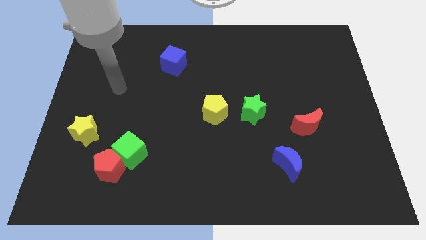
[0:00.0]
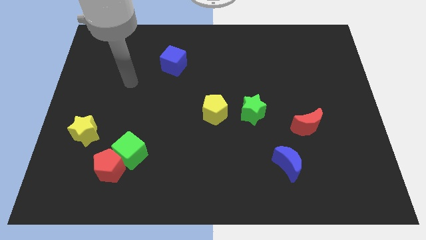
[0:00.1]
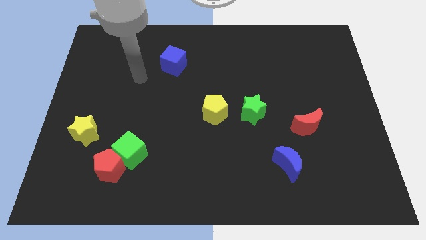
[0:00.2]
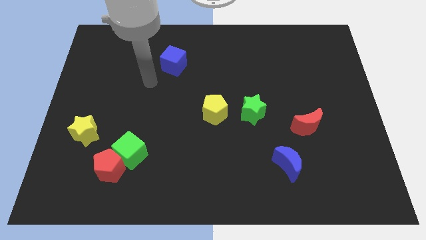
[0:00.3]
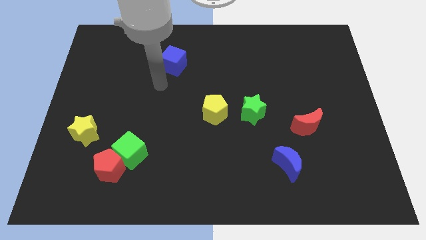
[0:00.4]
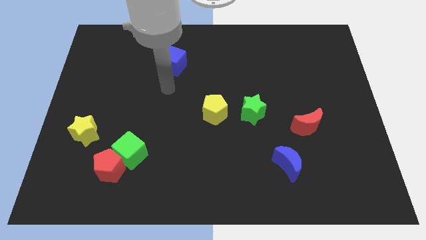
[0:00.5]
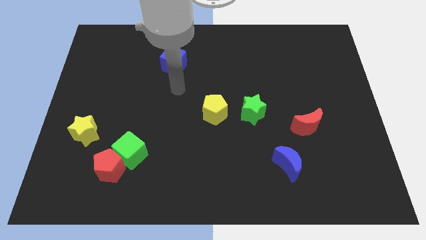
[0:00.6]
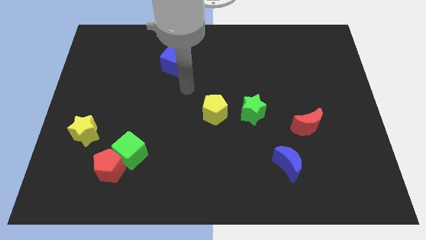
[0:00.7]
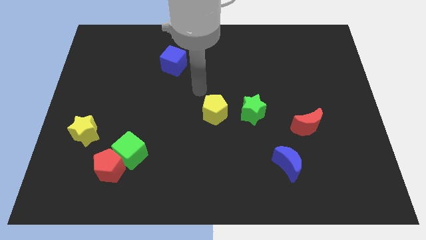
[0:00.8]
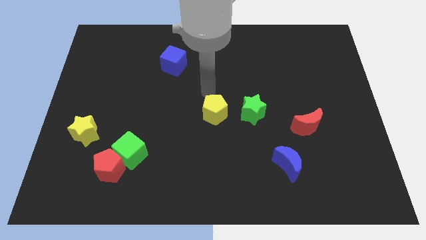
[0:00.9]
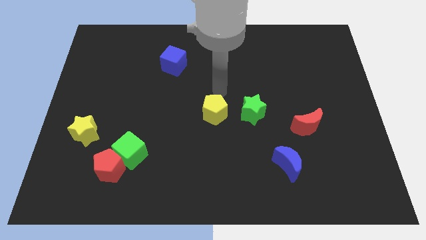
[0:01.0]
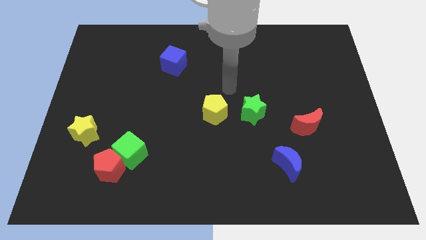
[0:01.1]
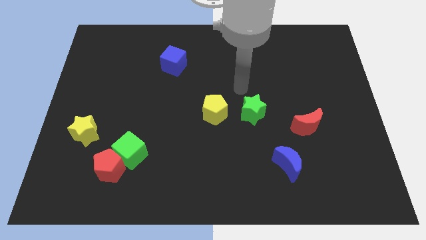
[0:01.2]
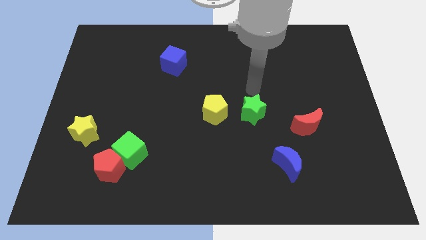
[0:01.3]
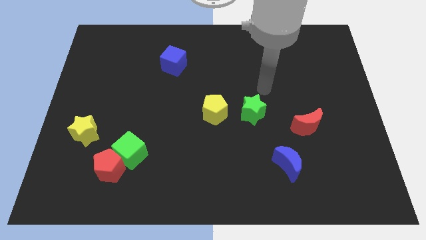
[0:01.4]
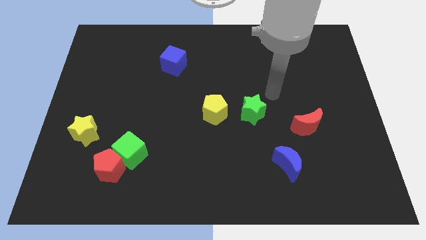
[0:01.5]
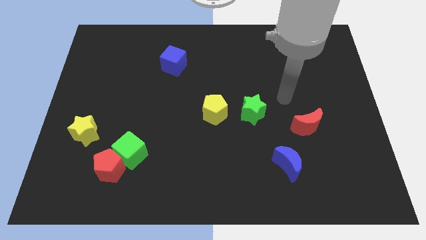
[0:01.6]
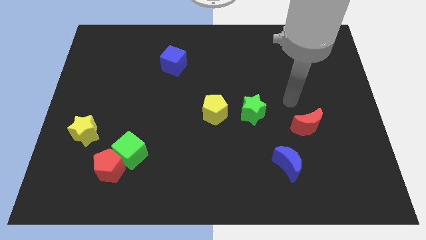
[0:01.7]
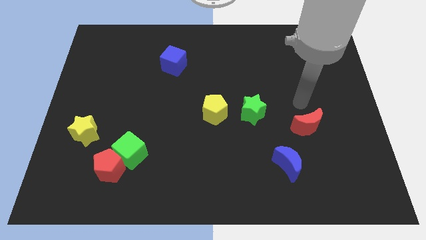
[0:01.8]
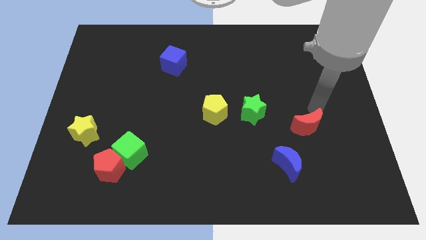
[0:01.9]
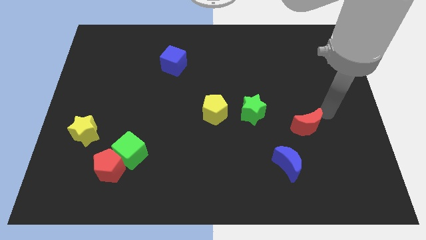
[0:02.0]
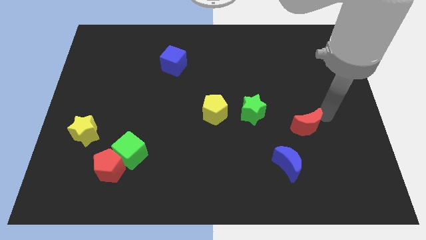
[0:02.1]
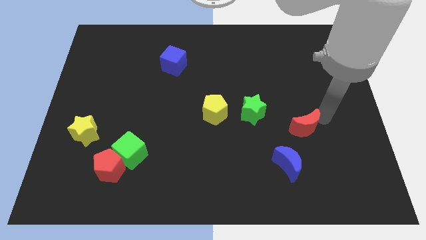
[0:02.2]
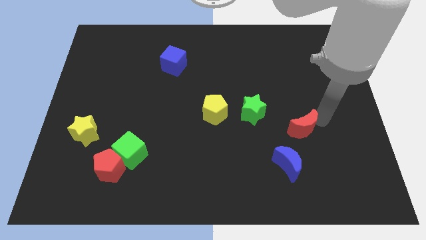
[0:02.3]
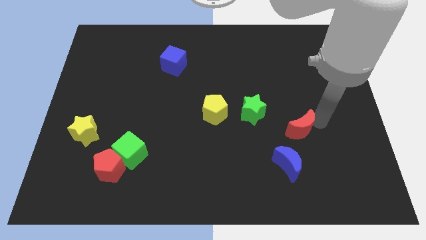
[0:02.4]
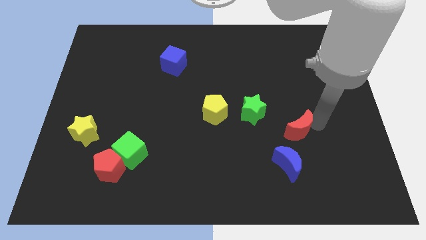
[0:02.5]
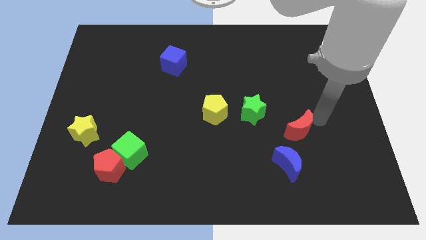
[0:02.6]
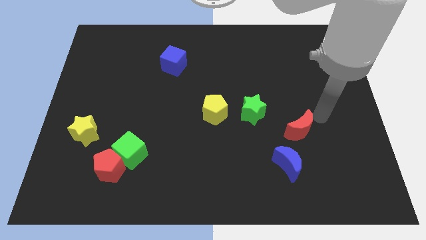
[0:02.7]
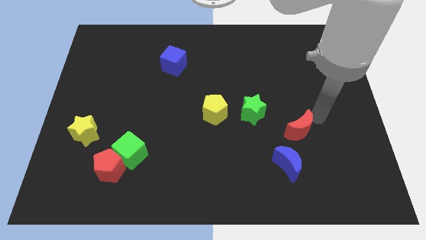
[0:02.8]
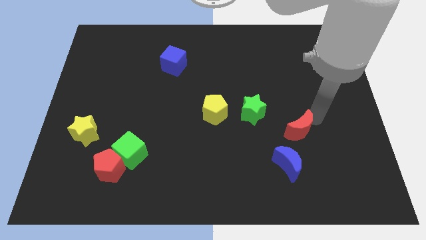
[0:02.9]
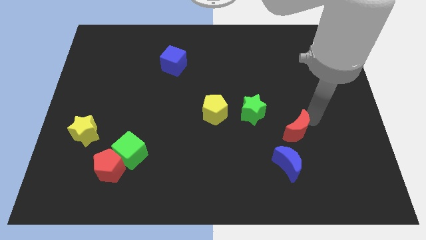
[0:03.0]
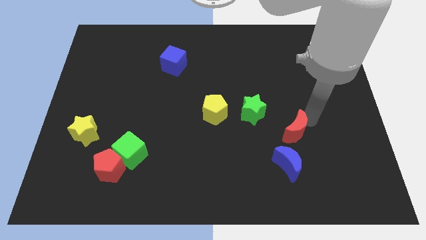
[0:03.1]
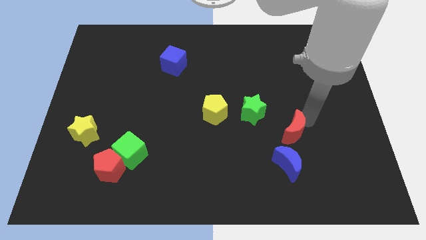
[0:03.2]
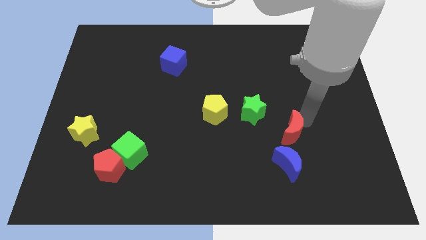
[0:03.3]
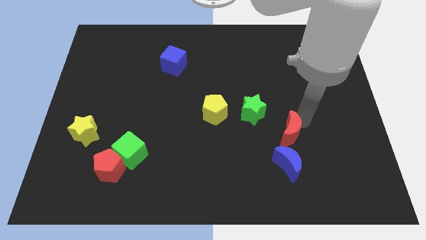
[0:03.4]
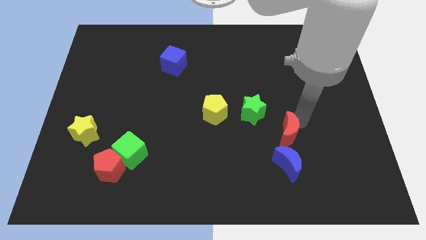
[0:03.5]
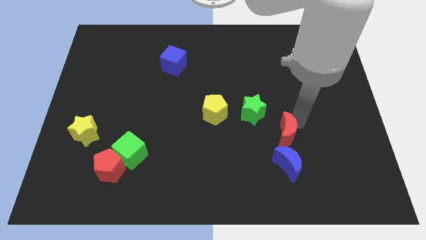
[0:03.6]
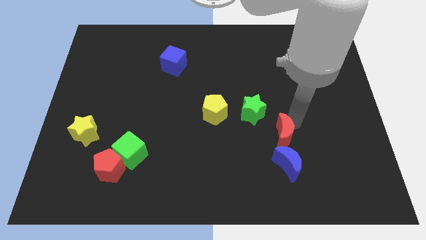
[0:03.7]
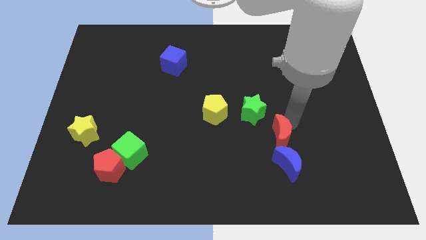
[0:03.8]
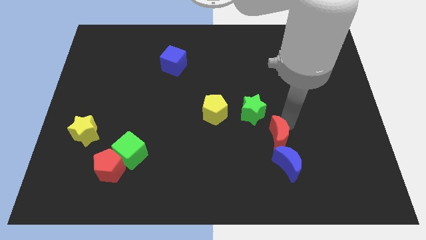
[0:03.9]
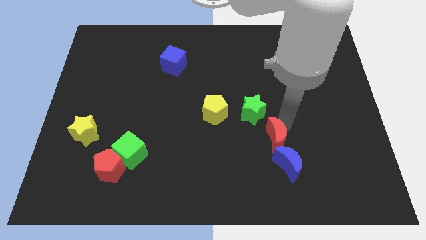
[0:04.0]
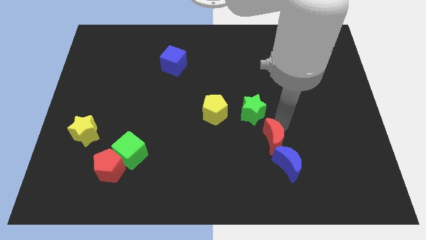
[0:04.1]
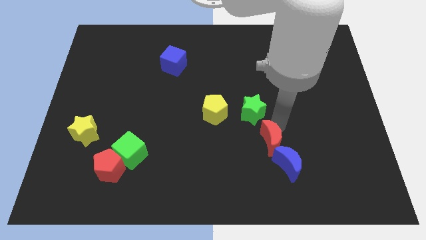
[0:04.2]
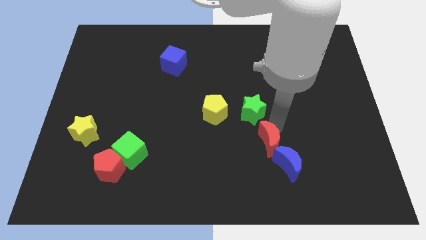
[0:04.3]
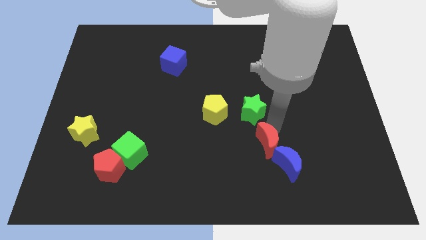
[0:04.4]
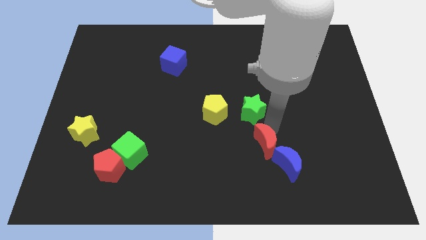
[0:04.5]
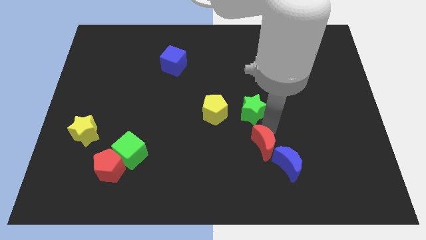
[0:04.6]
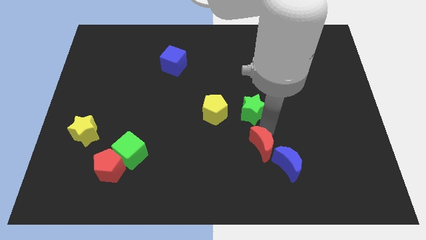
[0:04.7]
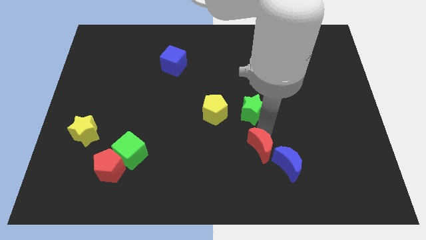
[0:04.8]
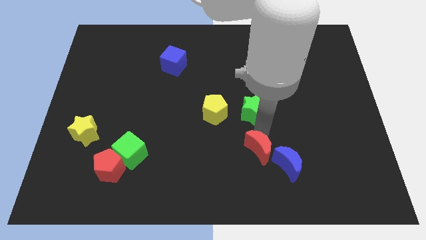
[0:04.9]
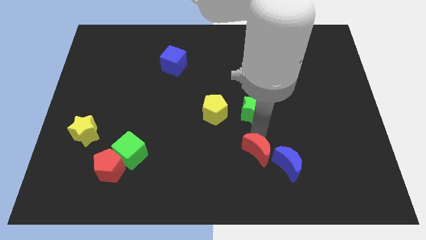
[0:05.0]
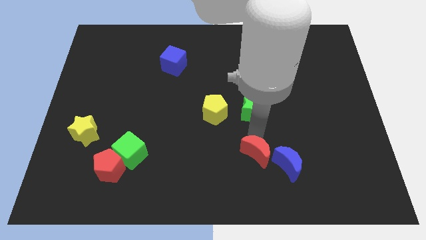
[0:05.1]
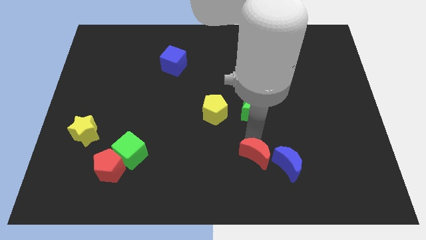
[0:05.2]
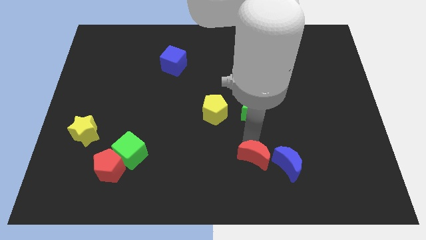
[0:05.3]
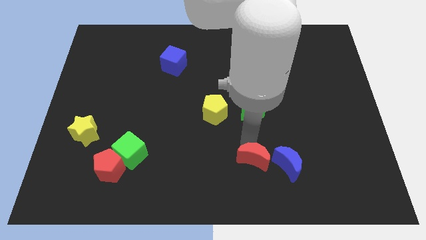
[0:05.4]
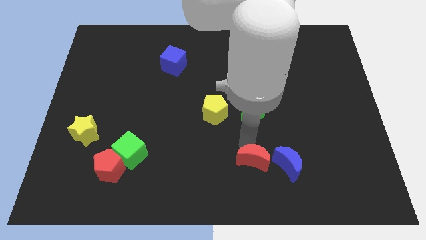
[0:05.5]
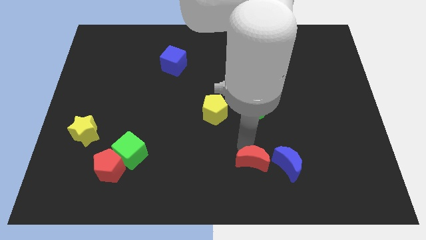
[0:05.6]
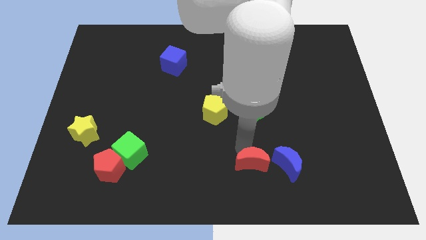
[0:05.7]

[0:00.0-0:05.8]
push the red moon to the bottom side

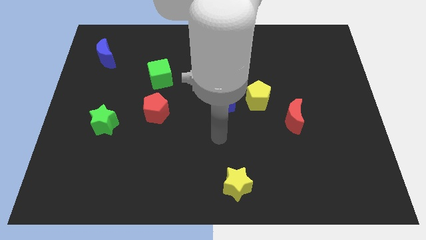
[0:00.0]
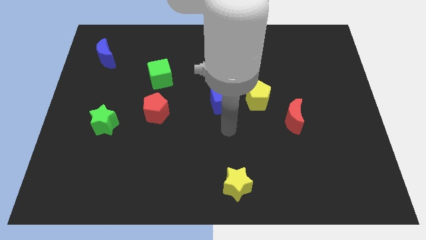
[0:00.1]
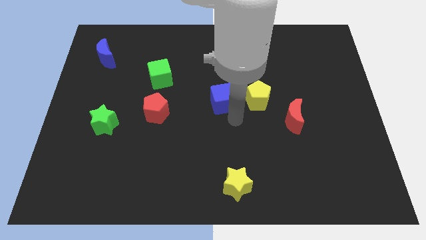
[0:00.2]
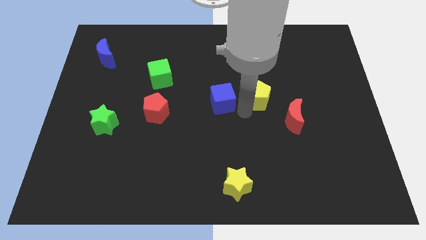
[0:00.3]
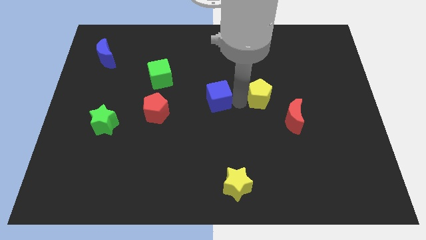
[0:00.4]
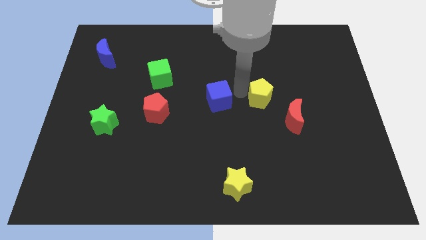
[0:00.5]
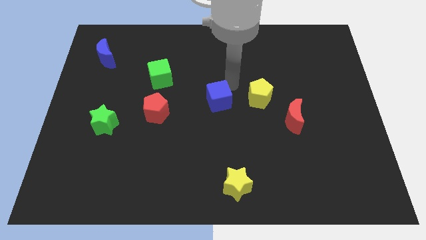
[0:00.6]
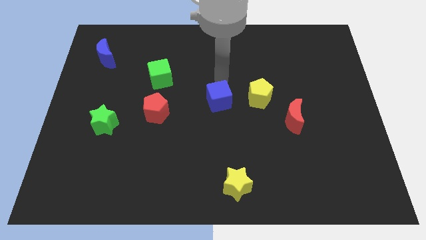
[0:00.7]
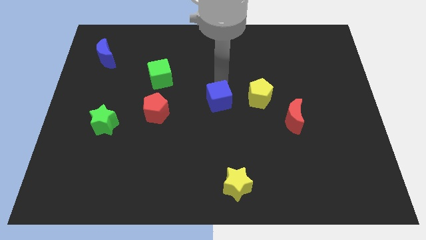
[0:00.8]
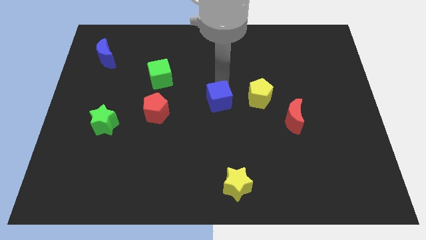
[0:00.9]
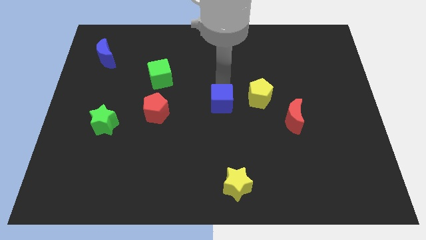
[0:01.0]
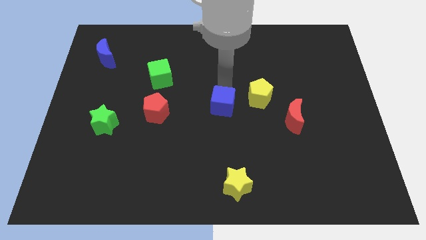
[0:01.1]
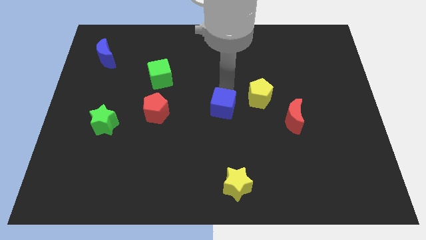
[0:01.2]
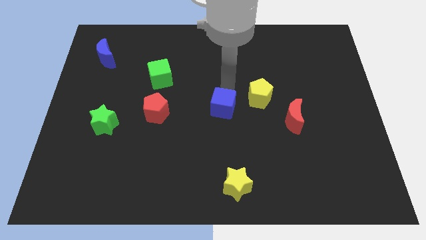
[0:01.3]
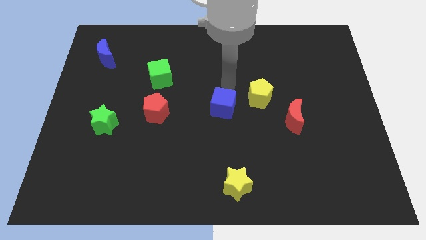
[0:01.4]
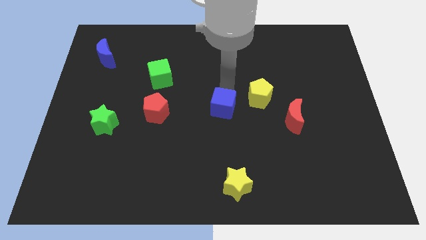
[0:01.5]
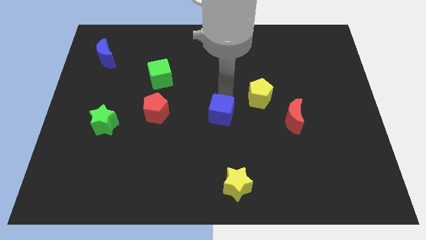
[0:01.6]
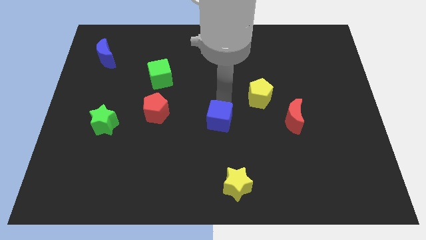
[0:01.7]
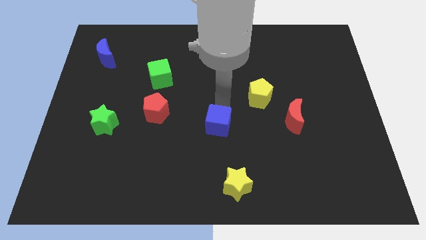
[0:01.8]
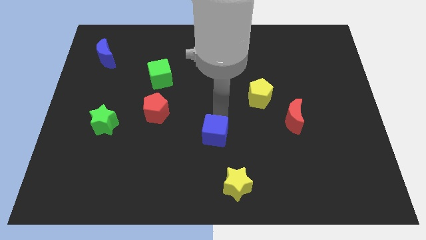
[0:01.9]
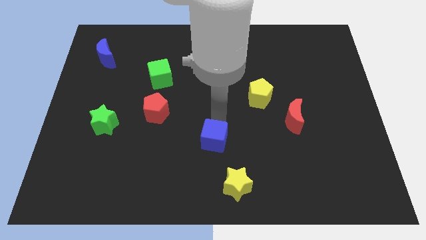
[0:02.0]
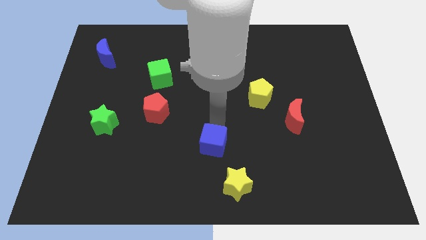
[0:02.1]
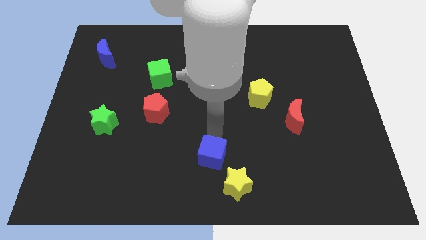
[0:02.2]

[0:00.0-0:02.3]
put the blue cube to the bottom
